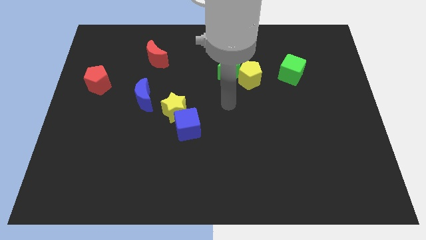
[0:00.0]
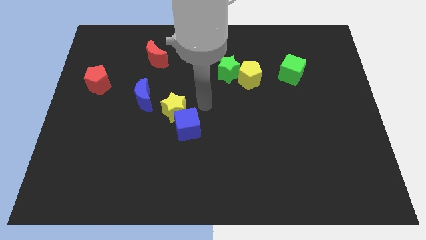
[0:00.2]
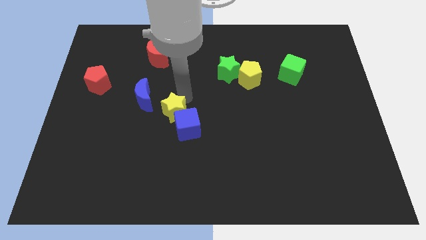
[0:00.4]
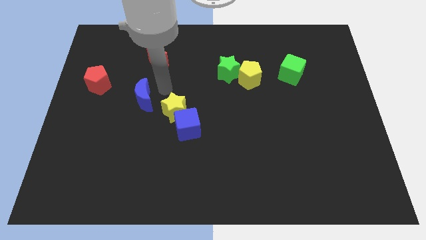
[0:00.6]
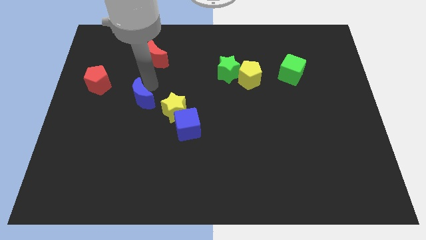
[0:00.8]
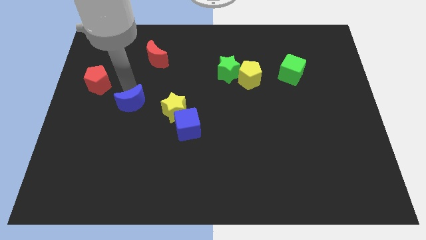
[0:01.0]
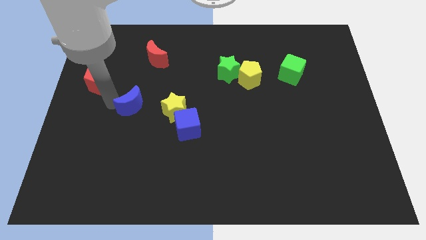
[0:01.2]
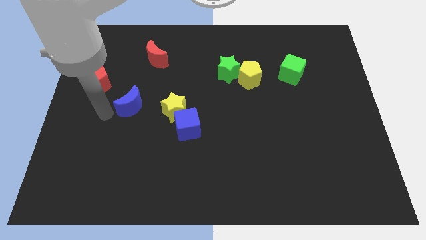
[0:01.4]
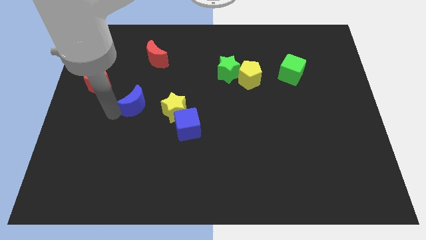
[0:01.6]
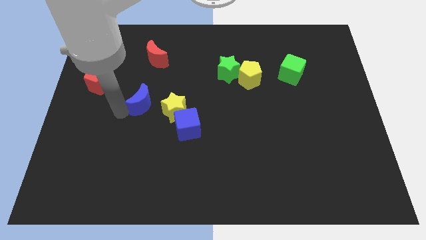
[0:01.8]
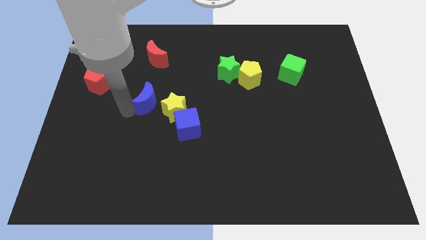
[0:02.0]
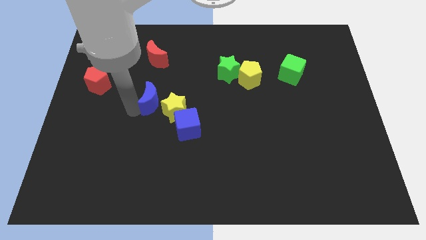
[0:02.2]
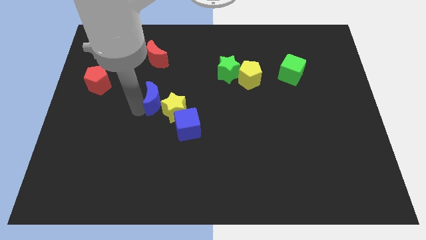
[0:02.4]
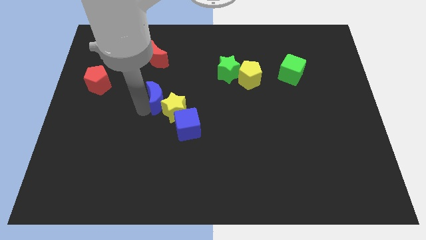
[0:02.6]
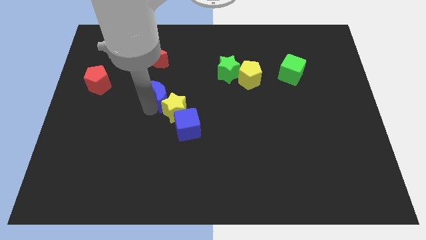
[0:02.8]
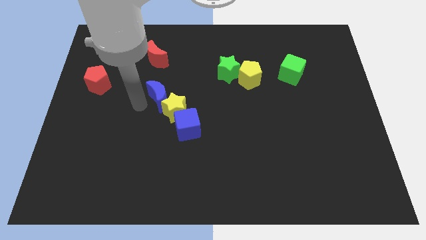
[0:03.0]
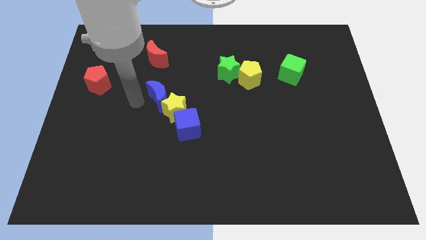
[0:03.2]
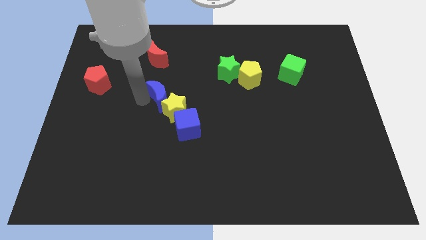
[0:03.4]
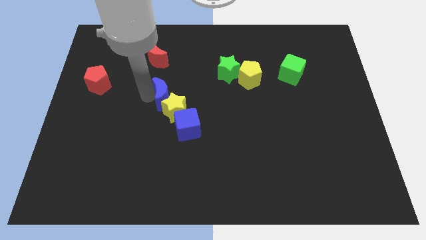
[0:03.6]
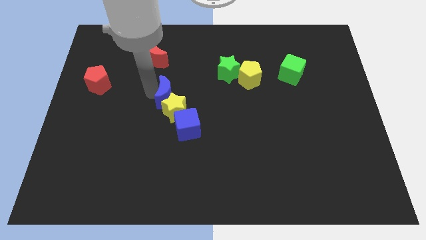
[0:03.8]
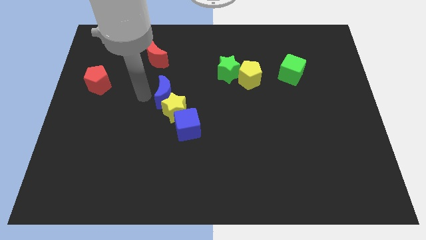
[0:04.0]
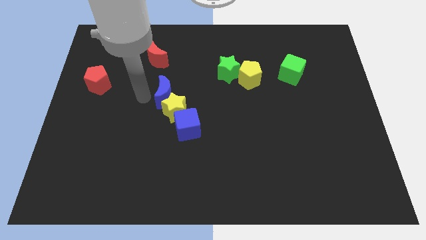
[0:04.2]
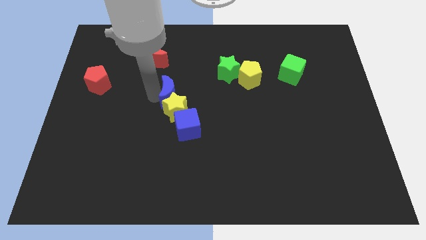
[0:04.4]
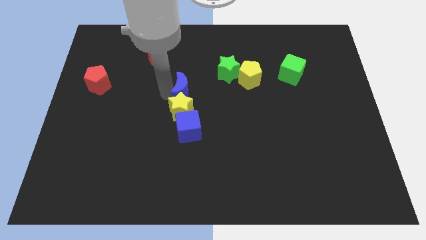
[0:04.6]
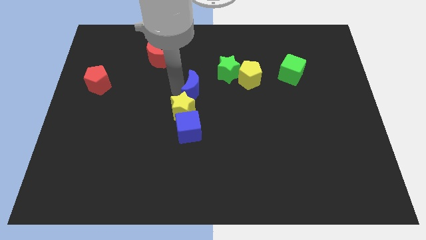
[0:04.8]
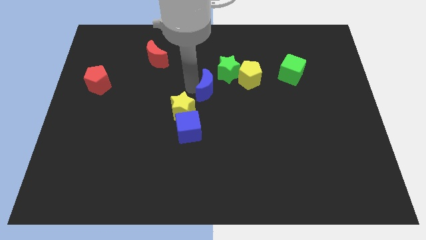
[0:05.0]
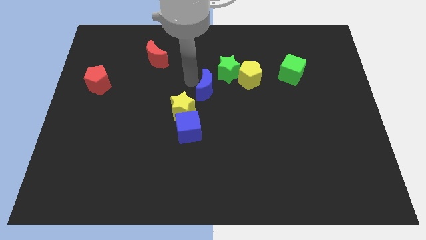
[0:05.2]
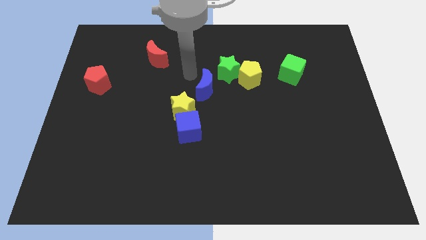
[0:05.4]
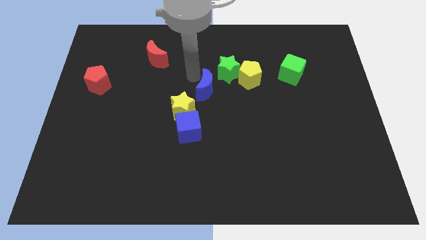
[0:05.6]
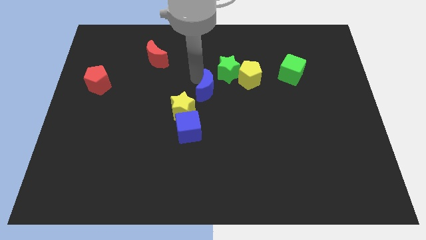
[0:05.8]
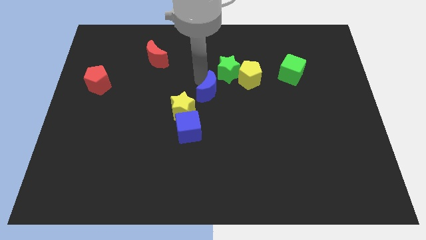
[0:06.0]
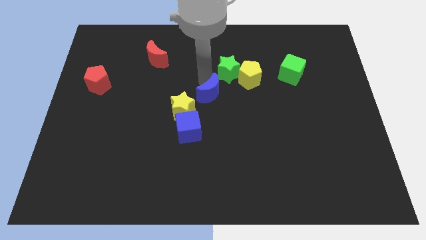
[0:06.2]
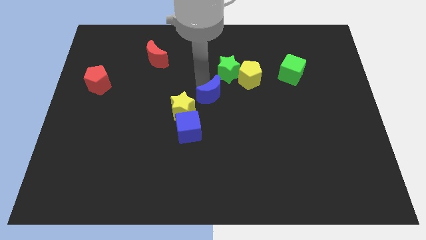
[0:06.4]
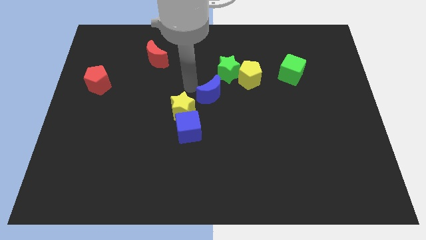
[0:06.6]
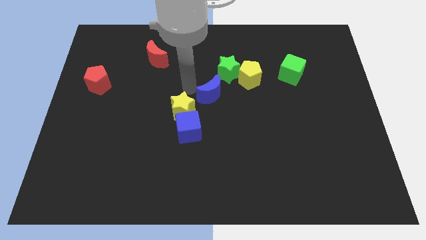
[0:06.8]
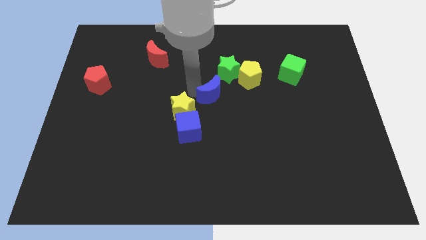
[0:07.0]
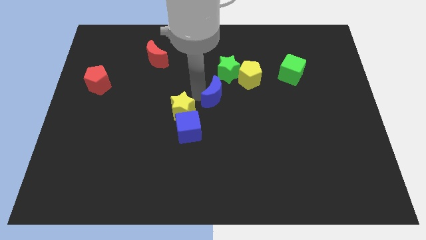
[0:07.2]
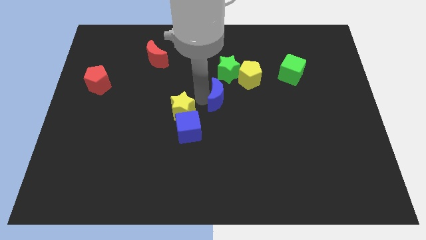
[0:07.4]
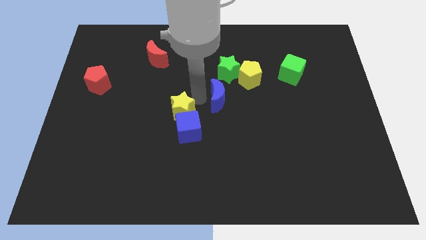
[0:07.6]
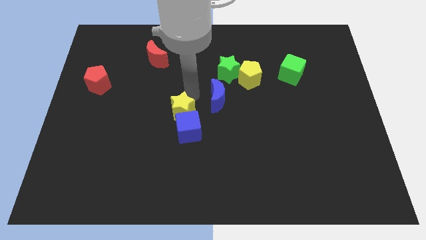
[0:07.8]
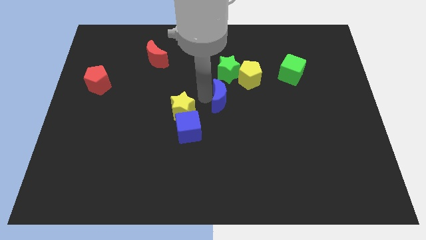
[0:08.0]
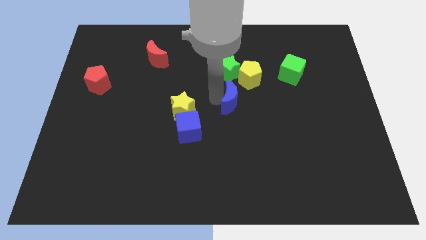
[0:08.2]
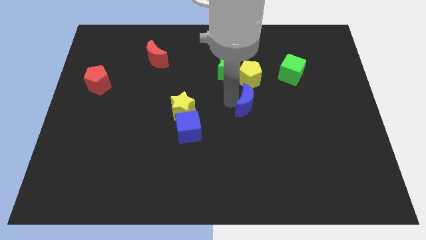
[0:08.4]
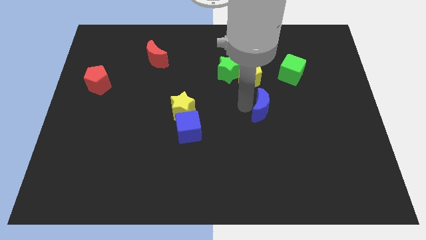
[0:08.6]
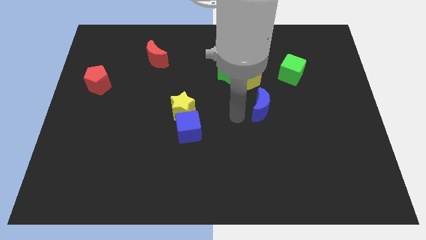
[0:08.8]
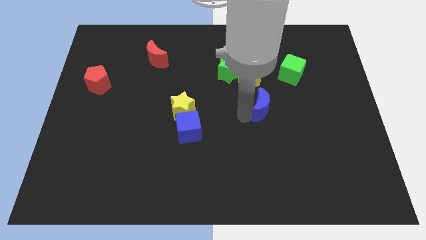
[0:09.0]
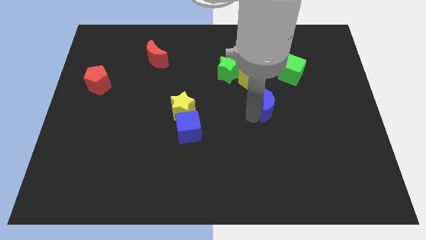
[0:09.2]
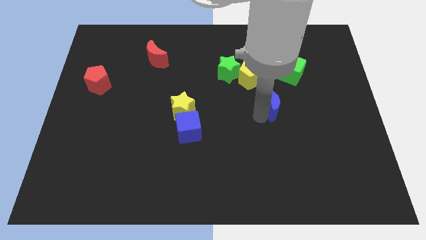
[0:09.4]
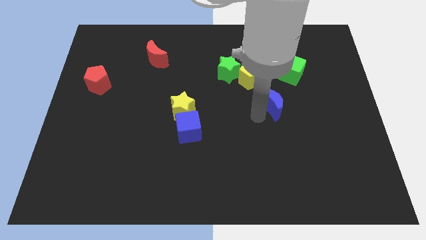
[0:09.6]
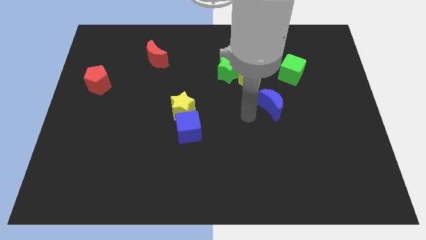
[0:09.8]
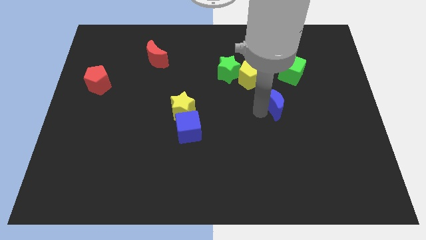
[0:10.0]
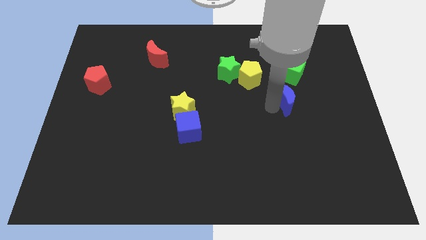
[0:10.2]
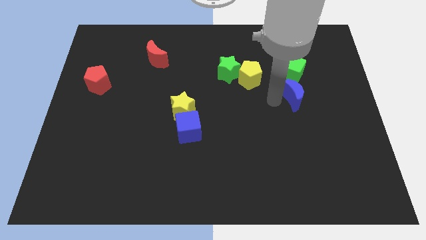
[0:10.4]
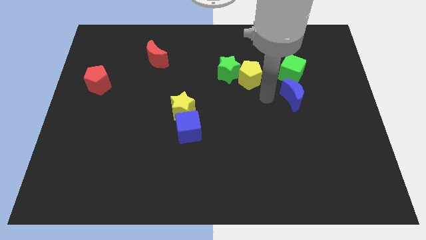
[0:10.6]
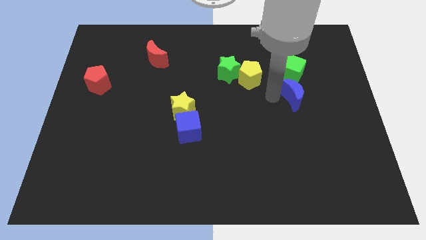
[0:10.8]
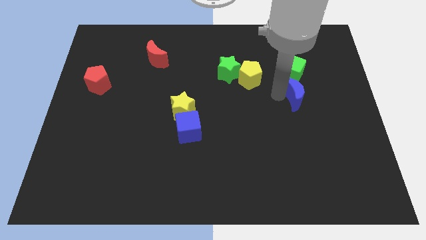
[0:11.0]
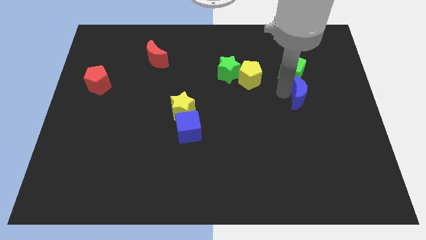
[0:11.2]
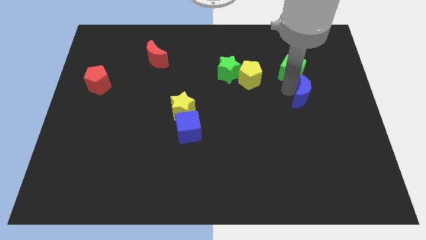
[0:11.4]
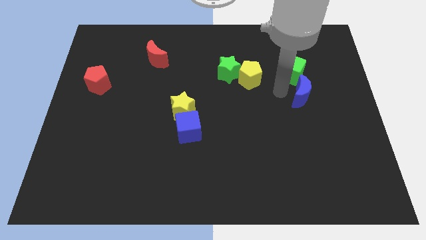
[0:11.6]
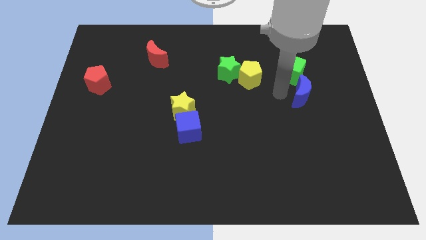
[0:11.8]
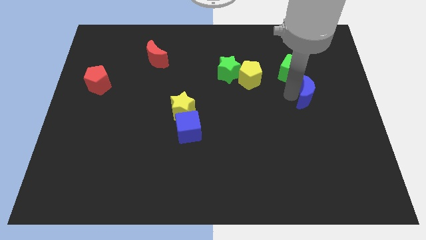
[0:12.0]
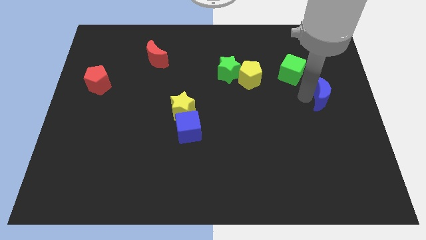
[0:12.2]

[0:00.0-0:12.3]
slide the blue moon to the right side

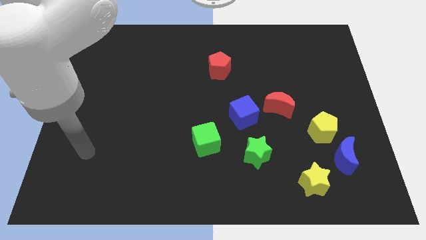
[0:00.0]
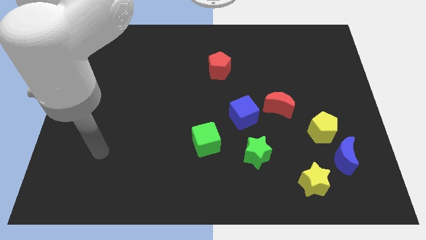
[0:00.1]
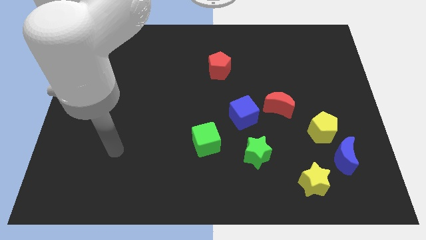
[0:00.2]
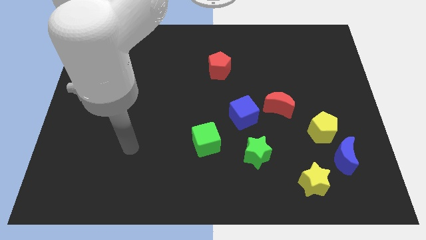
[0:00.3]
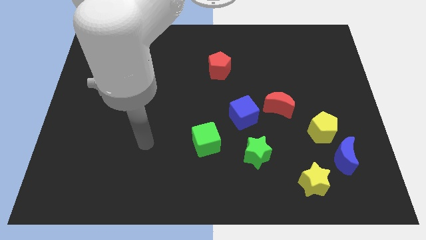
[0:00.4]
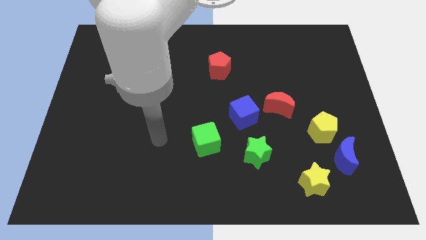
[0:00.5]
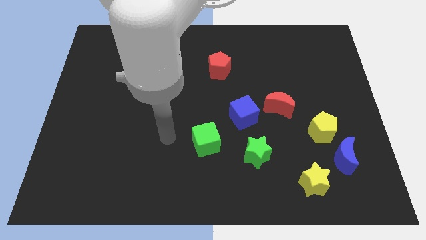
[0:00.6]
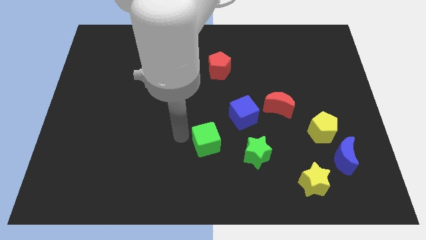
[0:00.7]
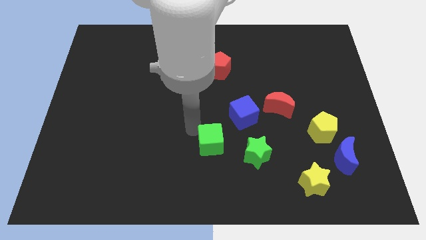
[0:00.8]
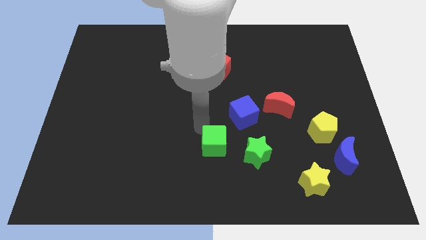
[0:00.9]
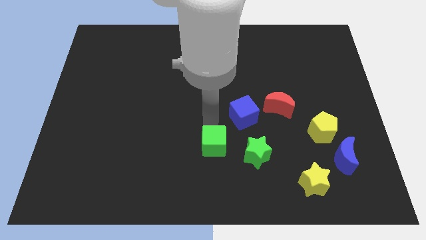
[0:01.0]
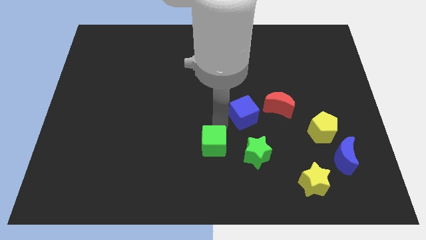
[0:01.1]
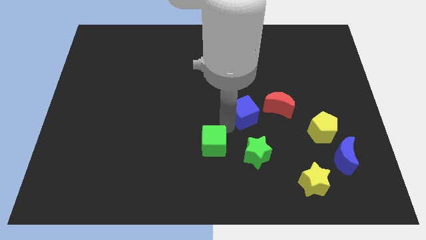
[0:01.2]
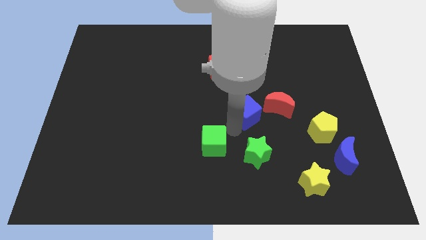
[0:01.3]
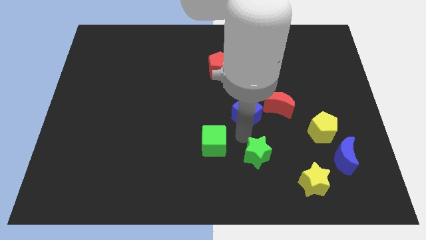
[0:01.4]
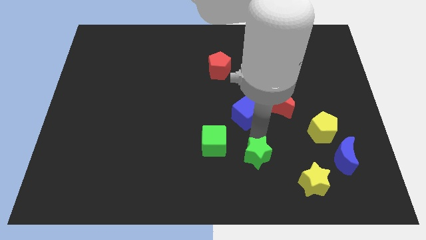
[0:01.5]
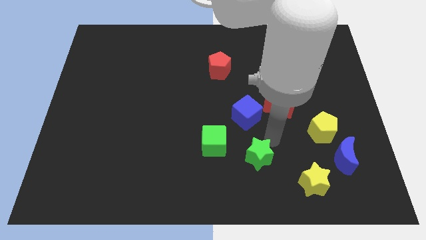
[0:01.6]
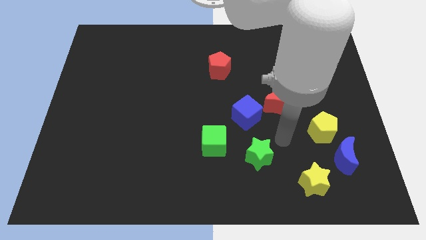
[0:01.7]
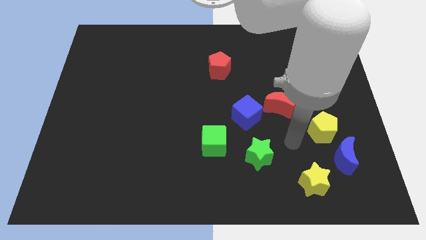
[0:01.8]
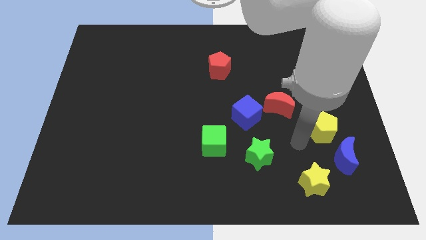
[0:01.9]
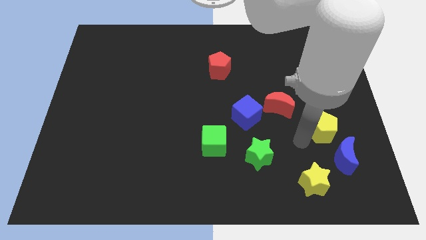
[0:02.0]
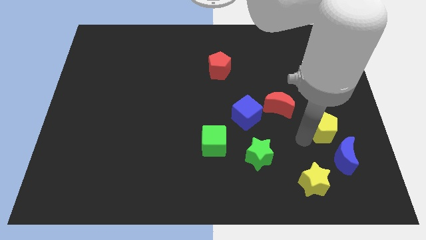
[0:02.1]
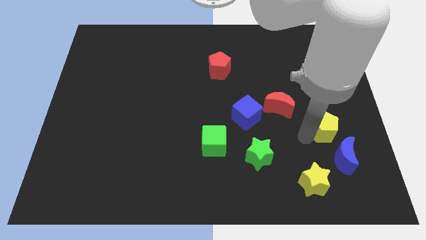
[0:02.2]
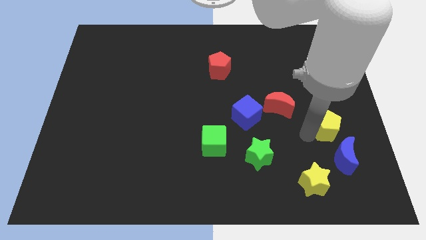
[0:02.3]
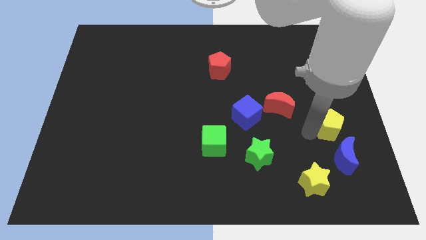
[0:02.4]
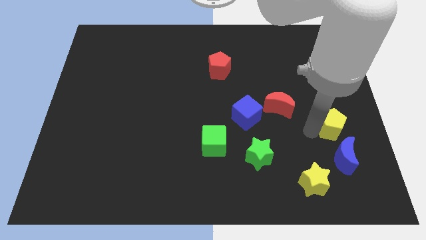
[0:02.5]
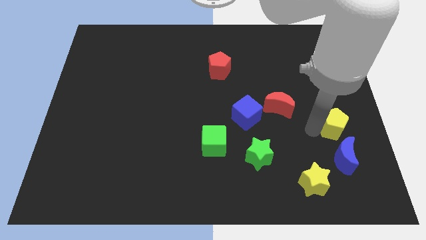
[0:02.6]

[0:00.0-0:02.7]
move the yellow pentagon to the right side of the board
